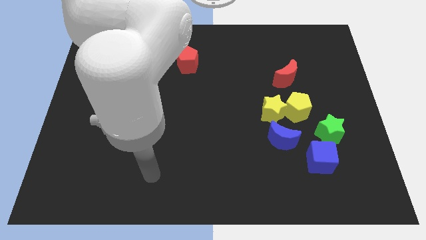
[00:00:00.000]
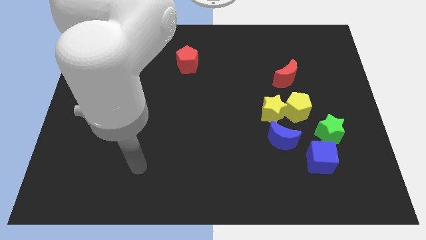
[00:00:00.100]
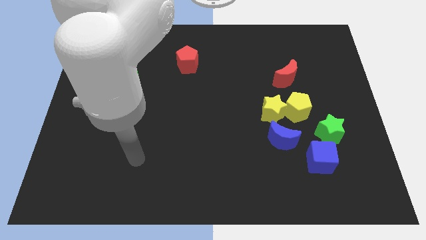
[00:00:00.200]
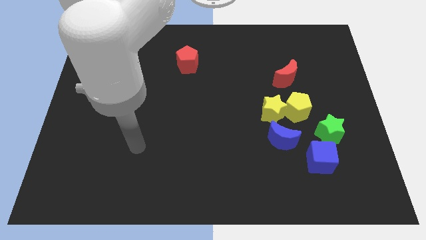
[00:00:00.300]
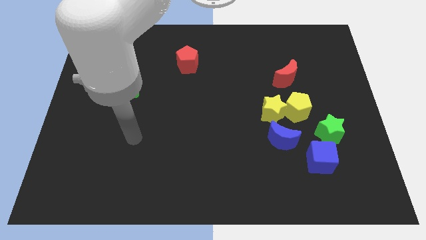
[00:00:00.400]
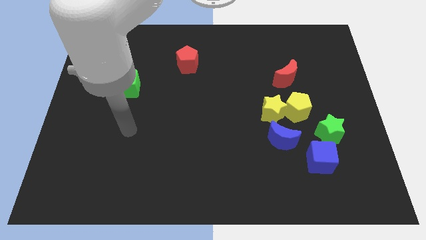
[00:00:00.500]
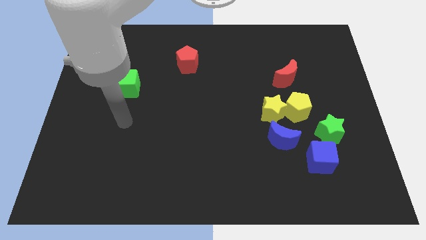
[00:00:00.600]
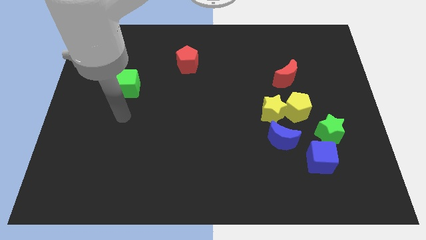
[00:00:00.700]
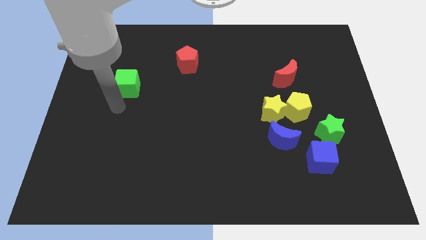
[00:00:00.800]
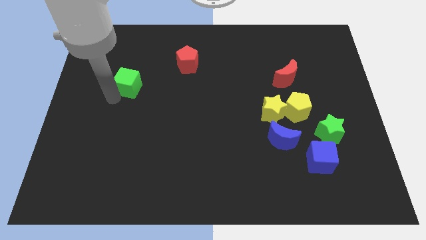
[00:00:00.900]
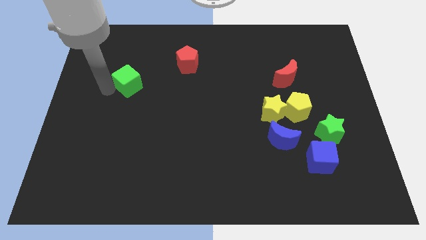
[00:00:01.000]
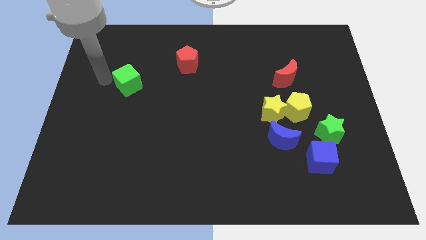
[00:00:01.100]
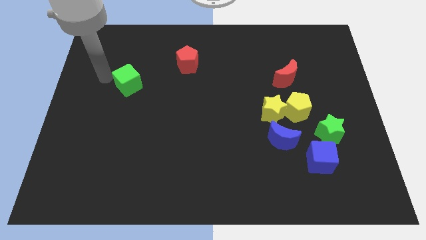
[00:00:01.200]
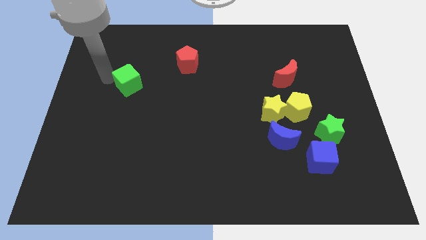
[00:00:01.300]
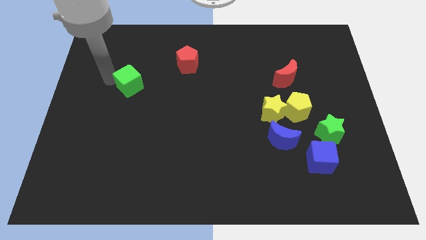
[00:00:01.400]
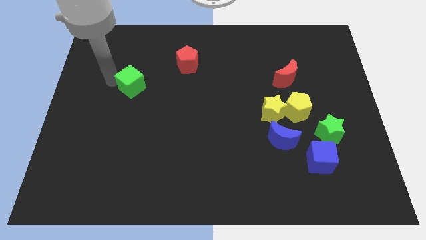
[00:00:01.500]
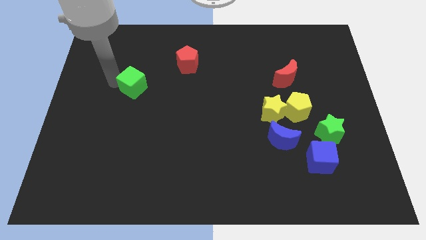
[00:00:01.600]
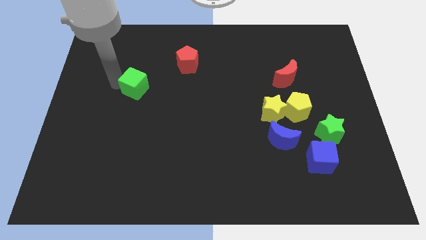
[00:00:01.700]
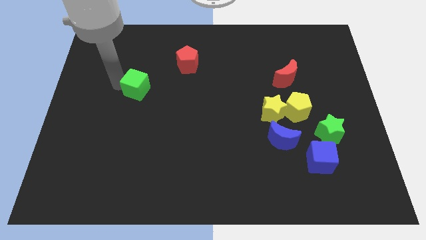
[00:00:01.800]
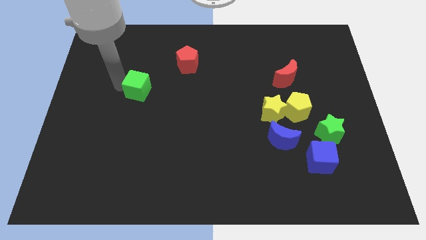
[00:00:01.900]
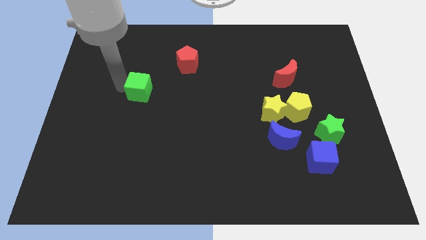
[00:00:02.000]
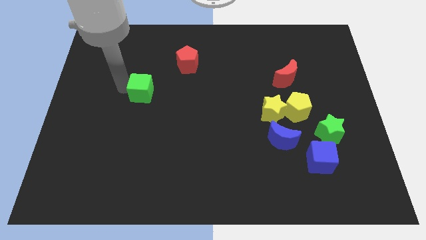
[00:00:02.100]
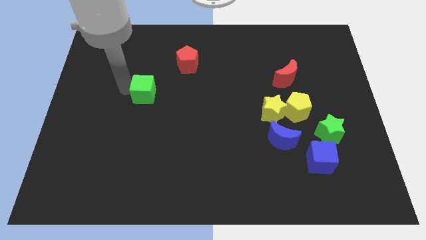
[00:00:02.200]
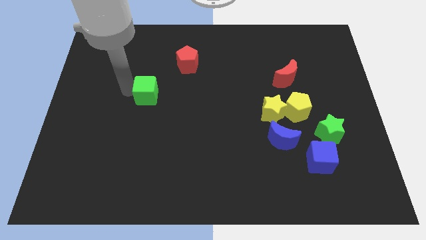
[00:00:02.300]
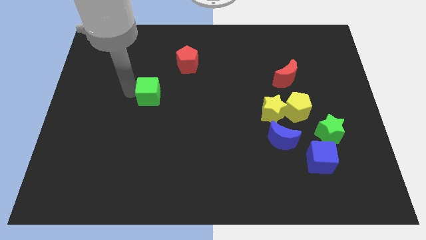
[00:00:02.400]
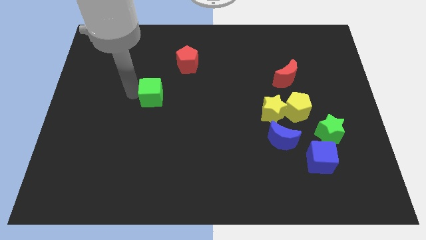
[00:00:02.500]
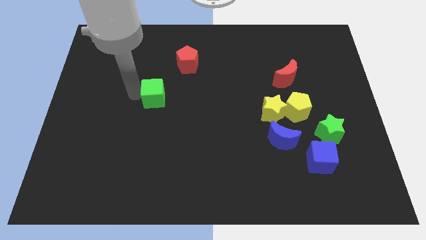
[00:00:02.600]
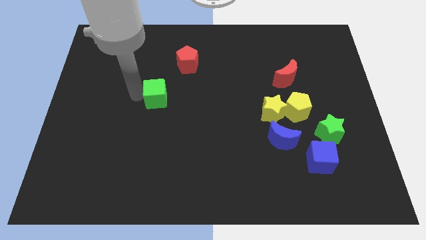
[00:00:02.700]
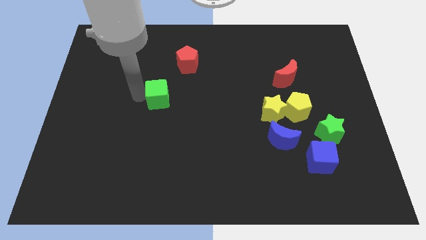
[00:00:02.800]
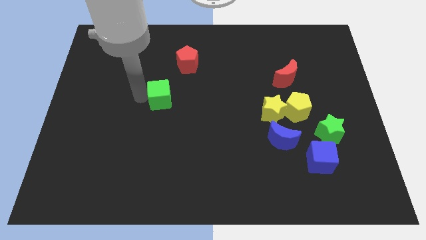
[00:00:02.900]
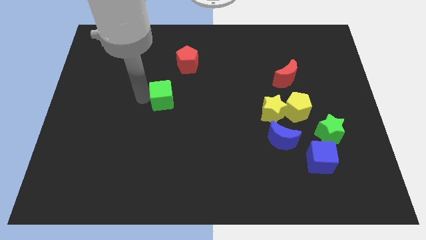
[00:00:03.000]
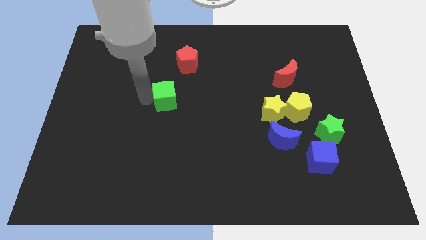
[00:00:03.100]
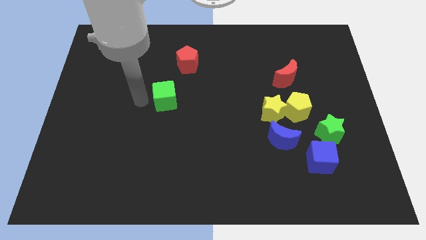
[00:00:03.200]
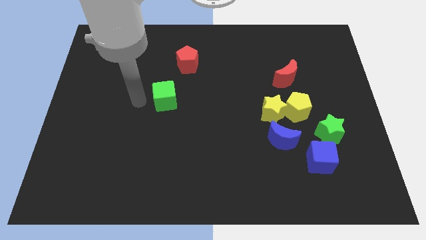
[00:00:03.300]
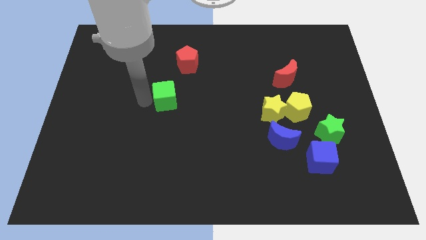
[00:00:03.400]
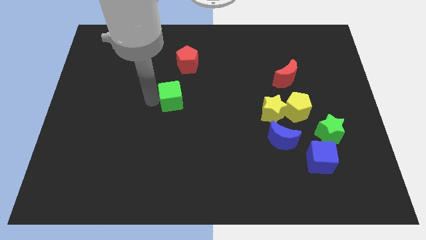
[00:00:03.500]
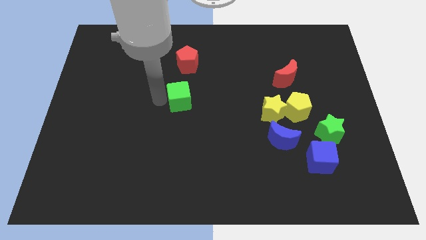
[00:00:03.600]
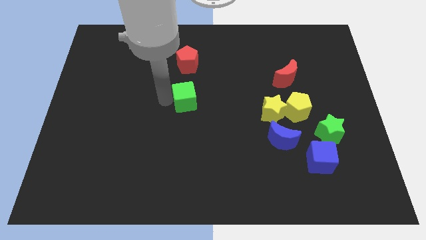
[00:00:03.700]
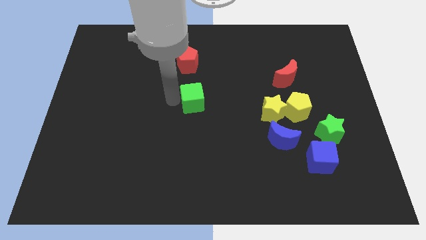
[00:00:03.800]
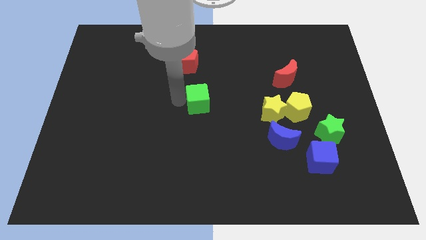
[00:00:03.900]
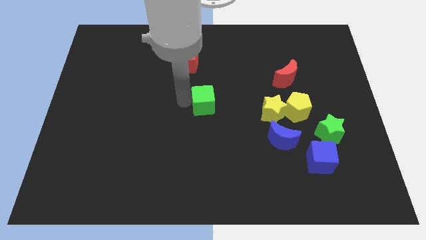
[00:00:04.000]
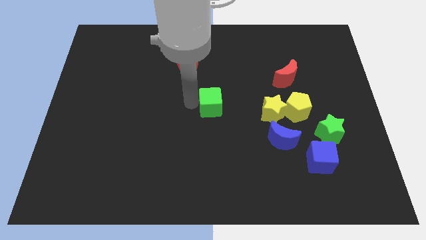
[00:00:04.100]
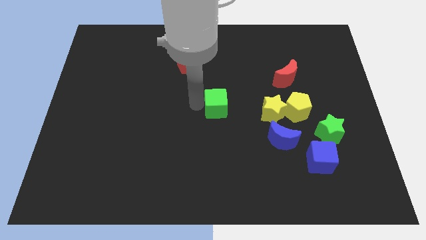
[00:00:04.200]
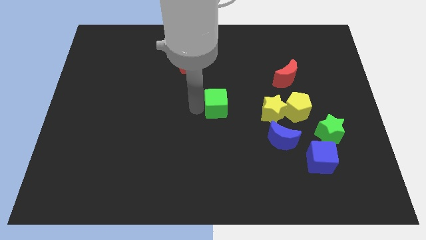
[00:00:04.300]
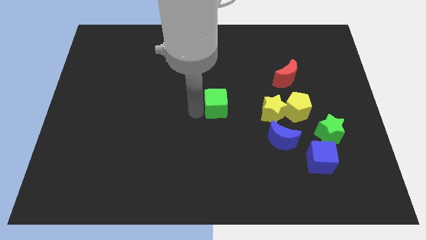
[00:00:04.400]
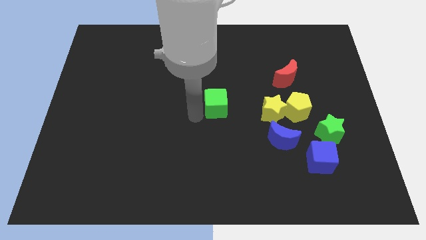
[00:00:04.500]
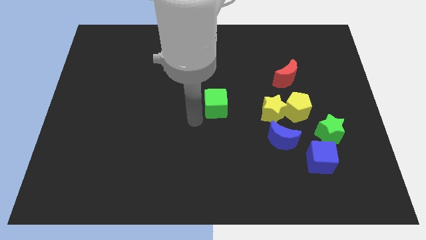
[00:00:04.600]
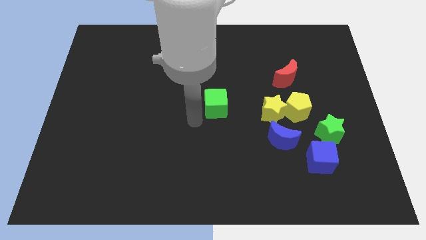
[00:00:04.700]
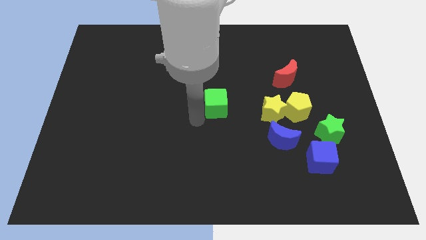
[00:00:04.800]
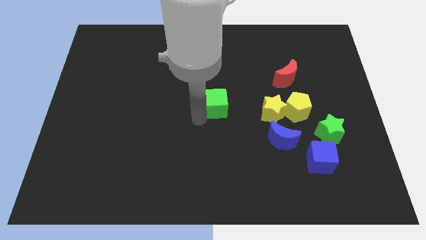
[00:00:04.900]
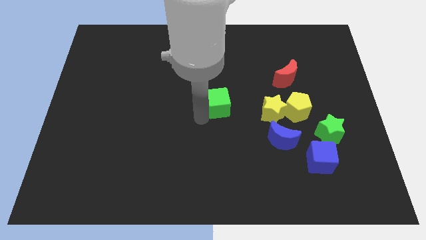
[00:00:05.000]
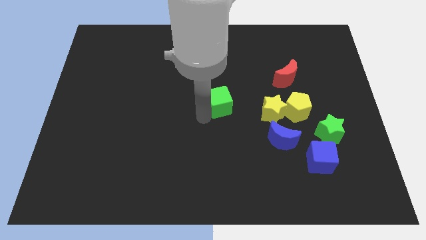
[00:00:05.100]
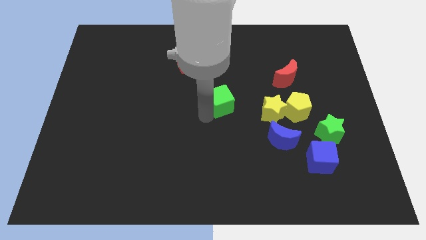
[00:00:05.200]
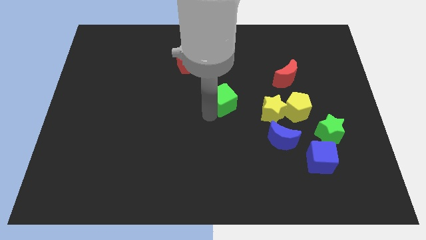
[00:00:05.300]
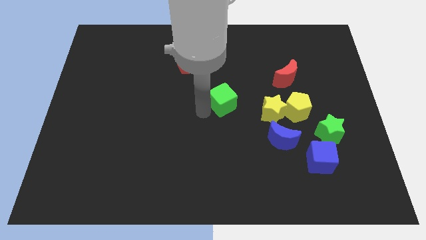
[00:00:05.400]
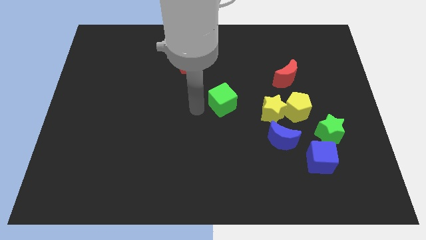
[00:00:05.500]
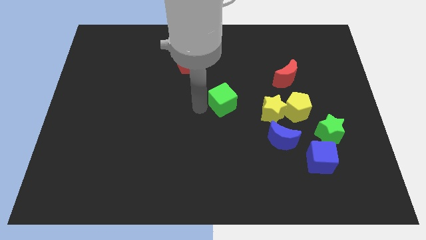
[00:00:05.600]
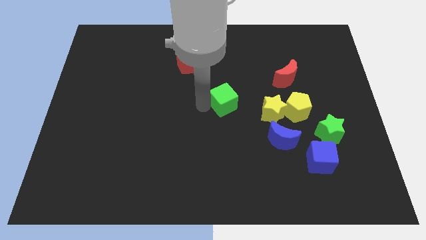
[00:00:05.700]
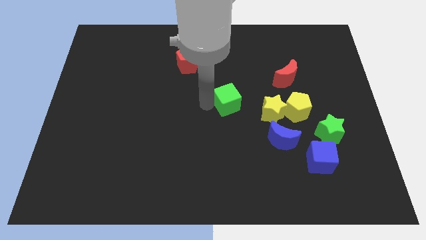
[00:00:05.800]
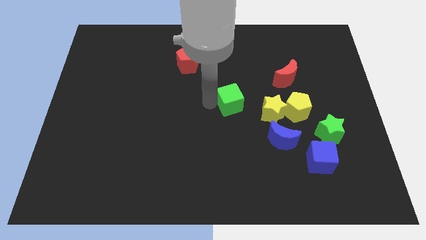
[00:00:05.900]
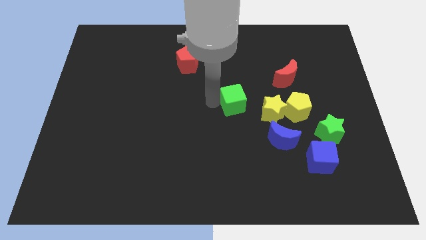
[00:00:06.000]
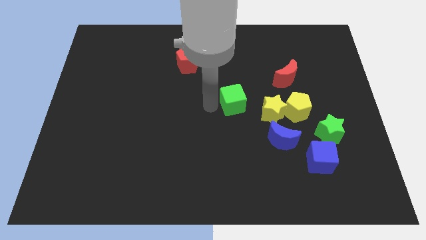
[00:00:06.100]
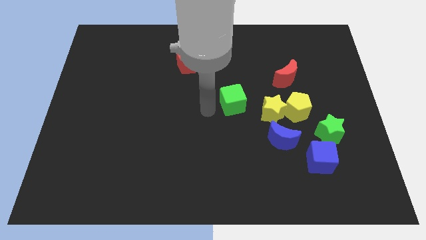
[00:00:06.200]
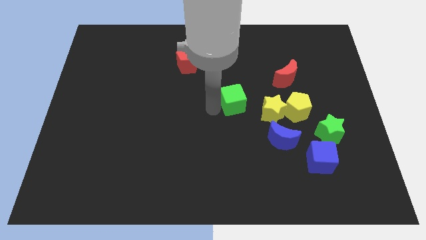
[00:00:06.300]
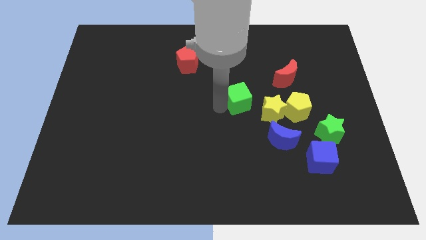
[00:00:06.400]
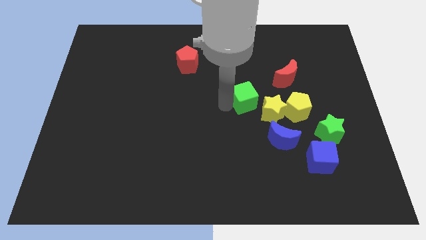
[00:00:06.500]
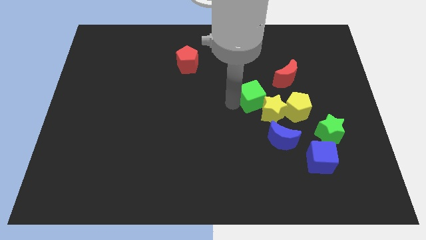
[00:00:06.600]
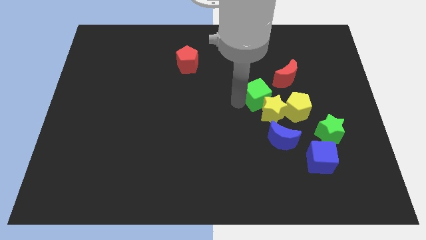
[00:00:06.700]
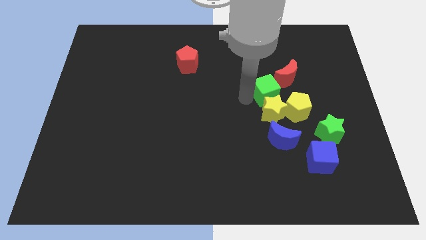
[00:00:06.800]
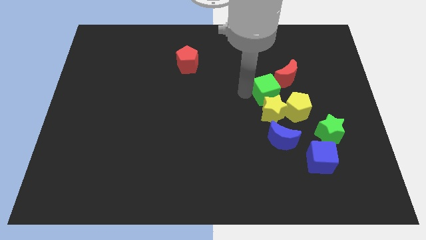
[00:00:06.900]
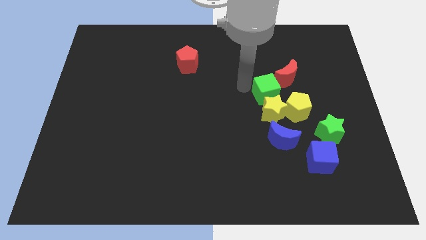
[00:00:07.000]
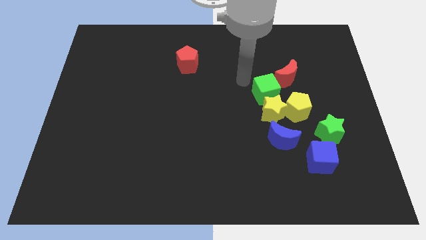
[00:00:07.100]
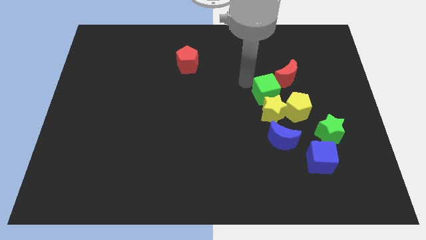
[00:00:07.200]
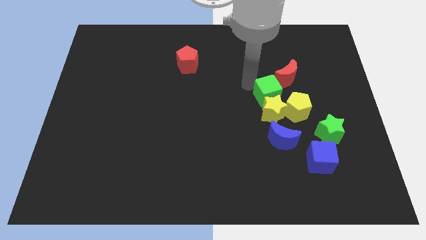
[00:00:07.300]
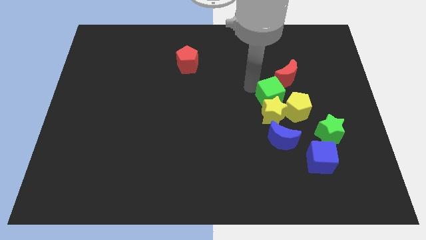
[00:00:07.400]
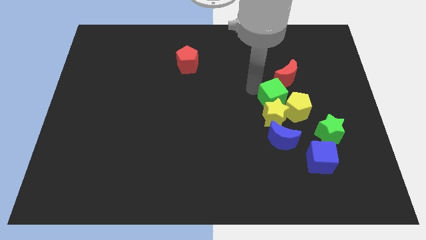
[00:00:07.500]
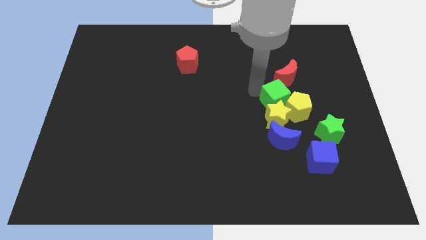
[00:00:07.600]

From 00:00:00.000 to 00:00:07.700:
push the green cube to the yellow pentagon
